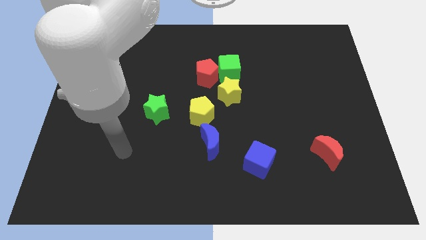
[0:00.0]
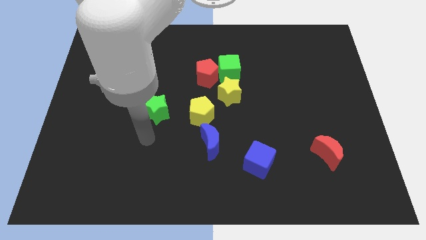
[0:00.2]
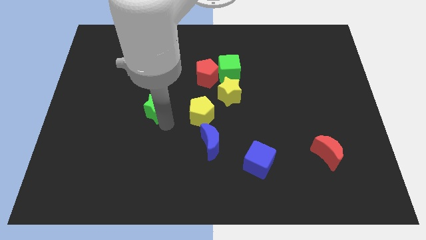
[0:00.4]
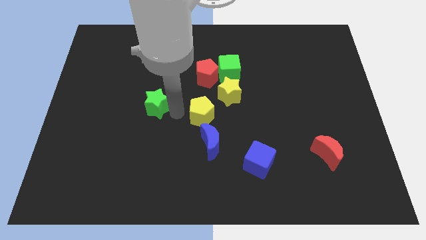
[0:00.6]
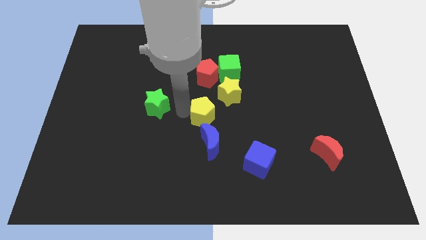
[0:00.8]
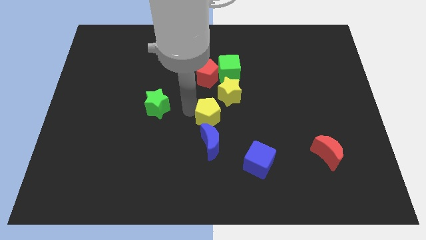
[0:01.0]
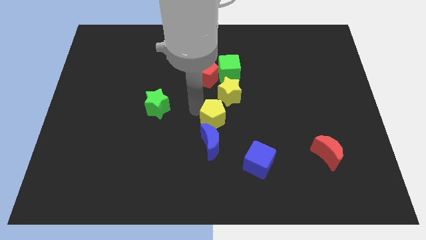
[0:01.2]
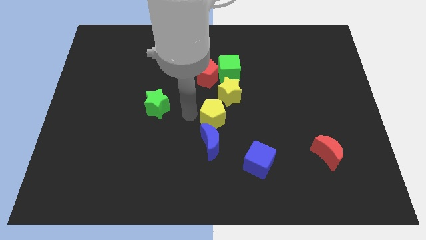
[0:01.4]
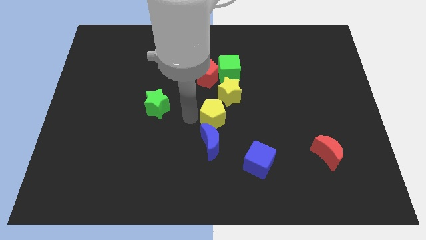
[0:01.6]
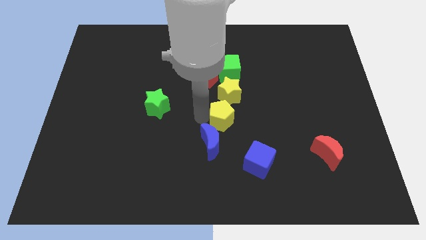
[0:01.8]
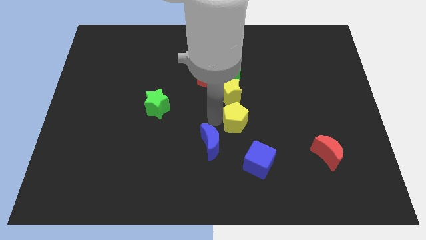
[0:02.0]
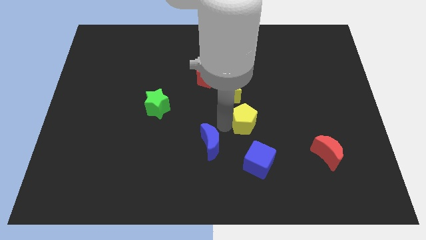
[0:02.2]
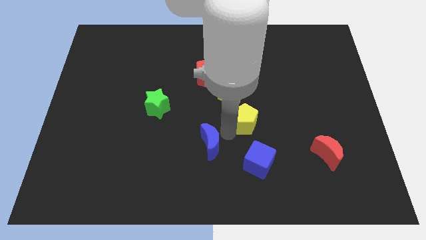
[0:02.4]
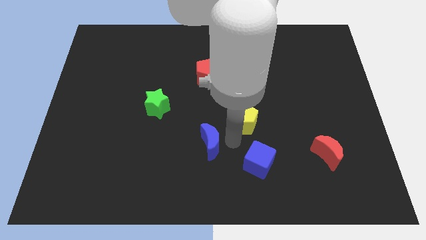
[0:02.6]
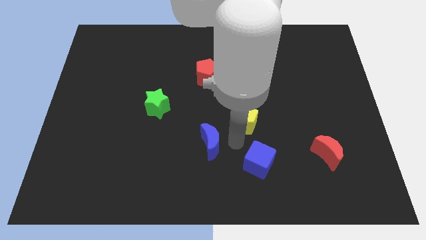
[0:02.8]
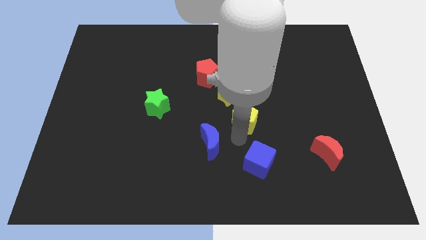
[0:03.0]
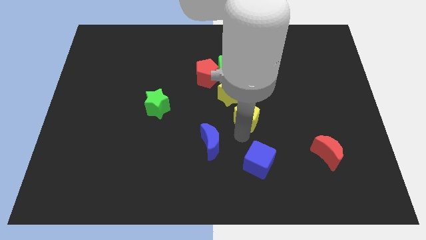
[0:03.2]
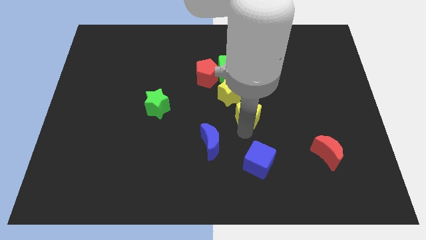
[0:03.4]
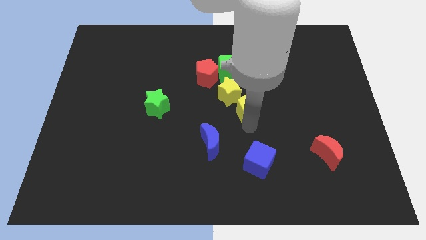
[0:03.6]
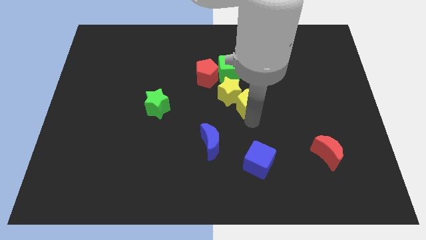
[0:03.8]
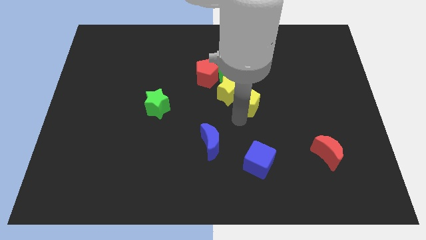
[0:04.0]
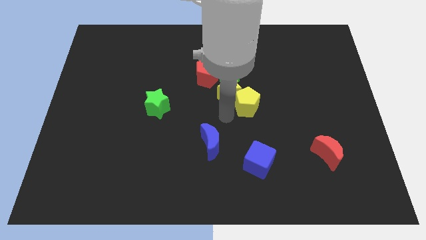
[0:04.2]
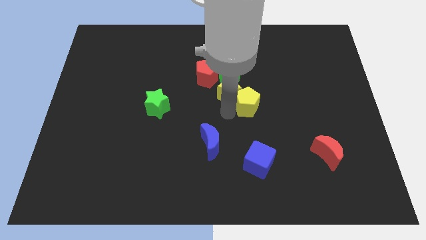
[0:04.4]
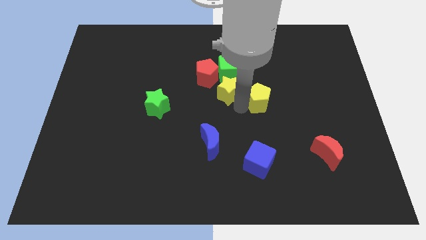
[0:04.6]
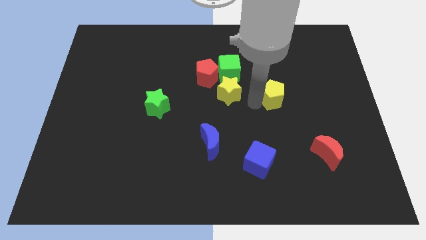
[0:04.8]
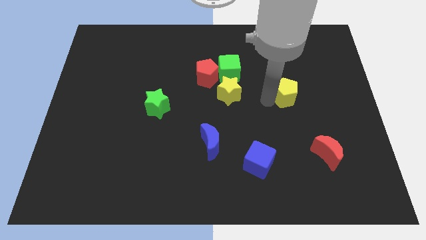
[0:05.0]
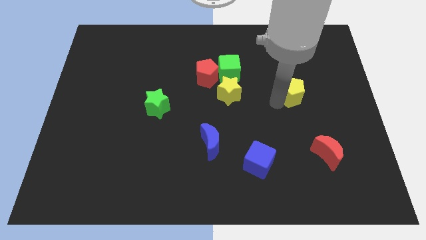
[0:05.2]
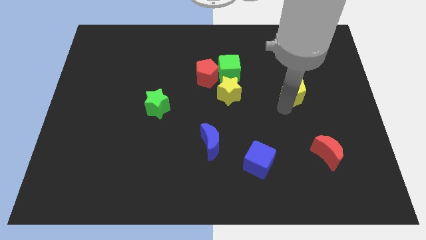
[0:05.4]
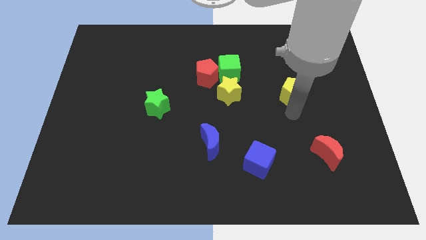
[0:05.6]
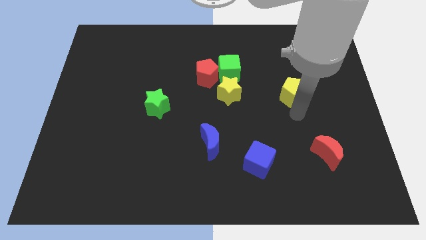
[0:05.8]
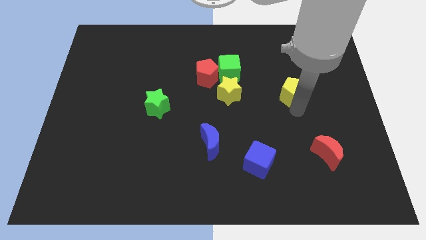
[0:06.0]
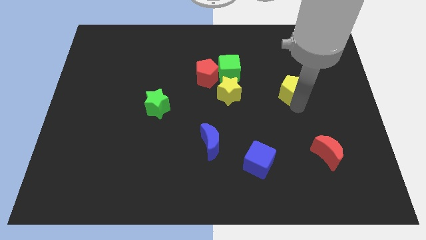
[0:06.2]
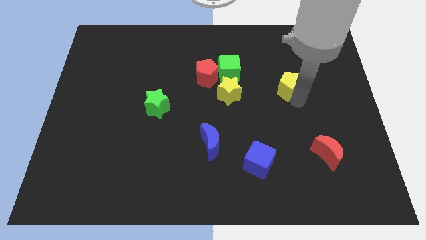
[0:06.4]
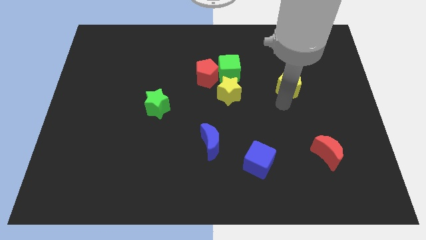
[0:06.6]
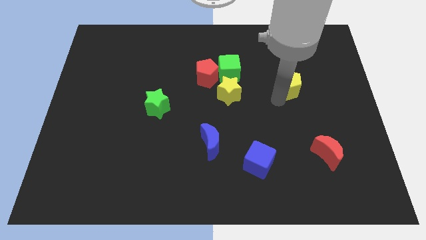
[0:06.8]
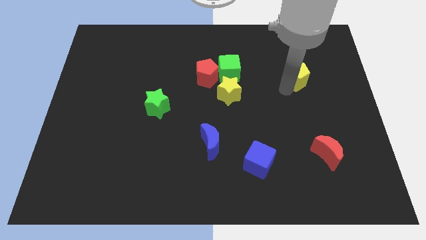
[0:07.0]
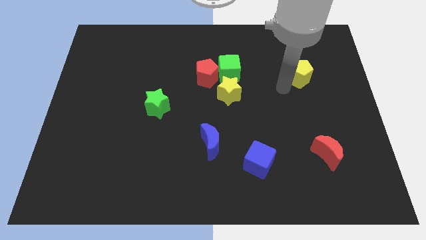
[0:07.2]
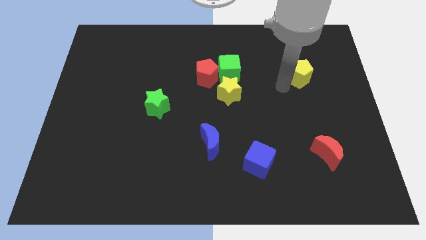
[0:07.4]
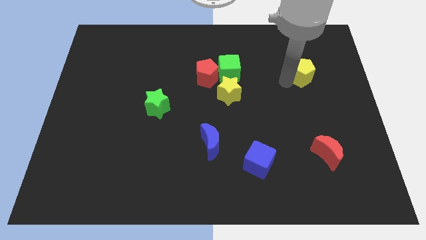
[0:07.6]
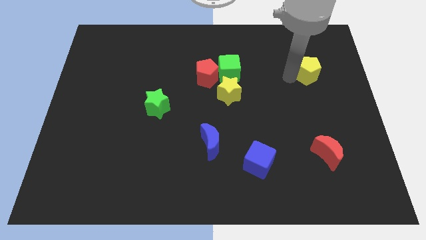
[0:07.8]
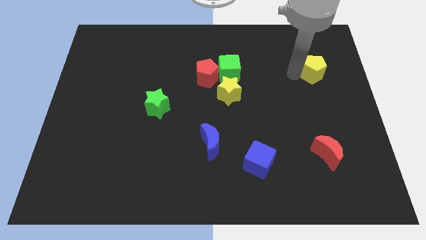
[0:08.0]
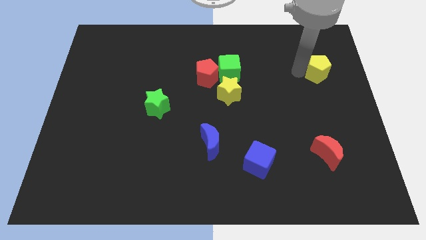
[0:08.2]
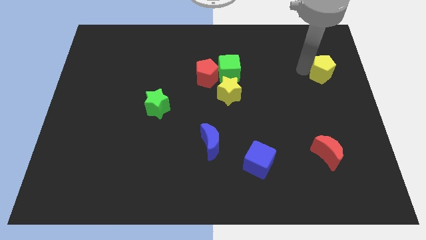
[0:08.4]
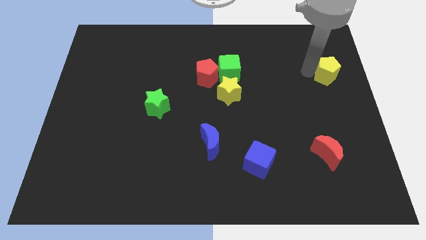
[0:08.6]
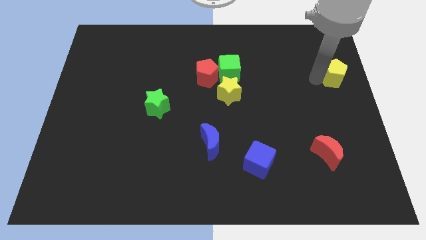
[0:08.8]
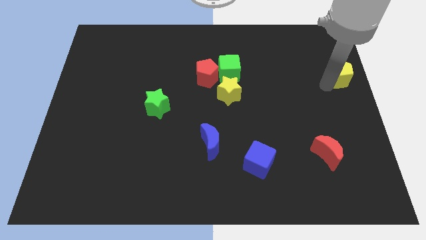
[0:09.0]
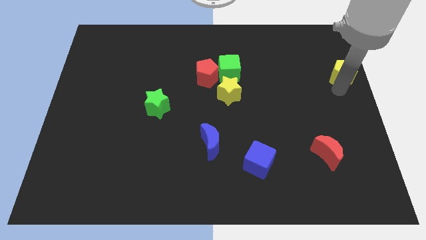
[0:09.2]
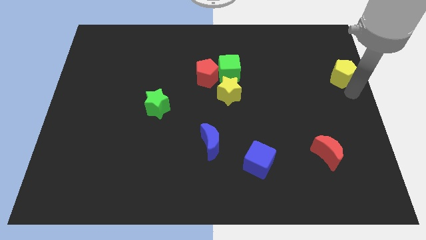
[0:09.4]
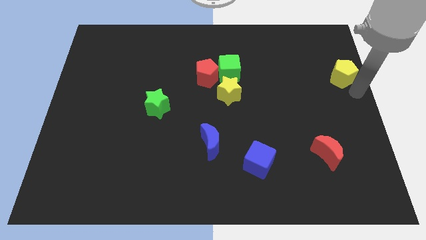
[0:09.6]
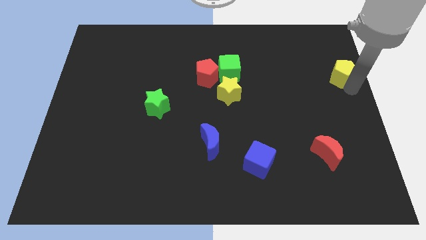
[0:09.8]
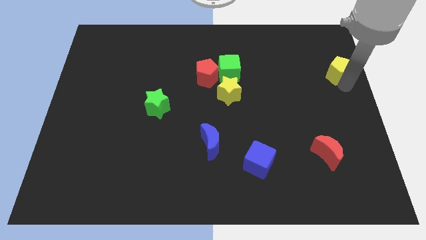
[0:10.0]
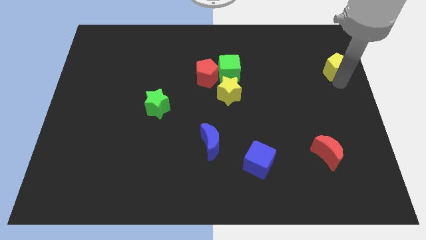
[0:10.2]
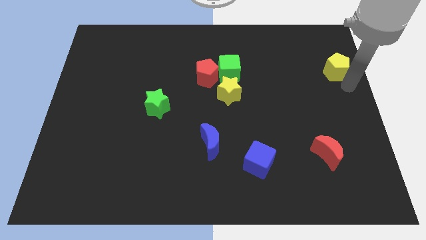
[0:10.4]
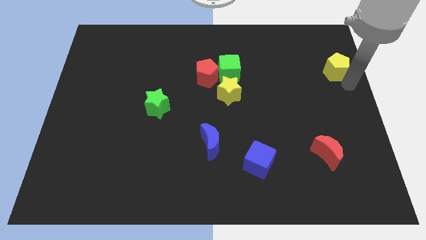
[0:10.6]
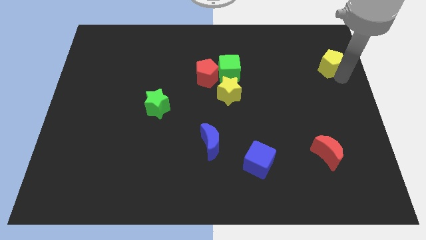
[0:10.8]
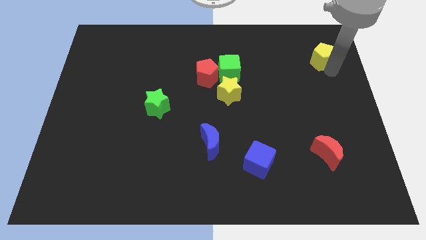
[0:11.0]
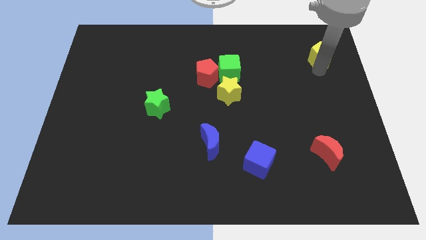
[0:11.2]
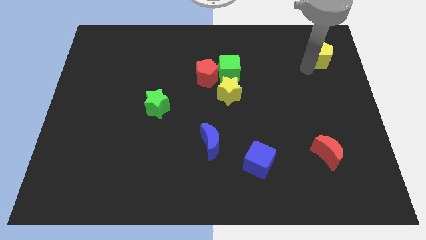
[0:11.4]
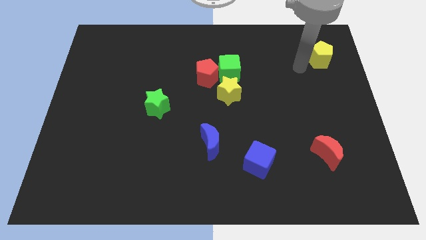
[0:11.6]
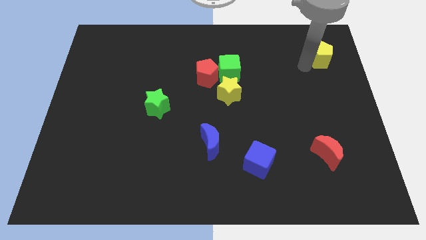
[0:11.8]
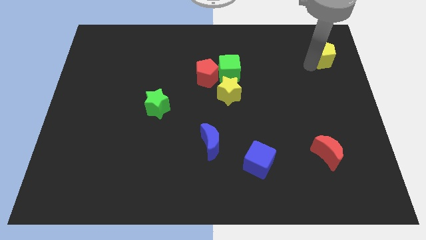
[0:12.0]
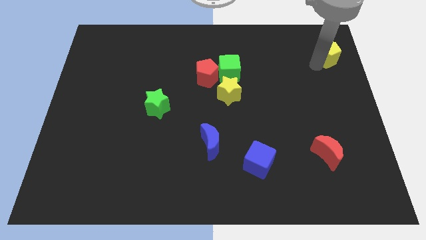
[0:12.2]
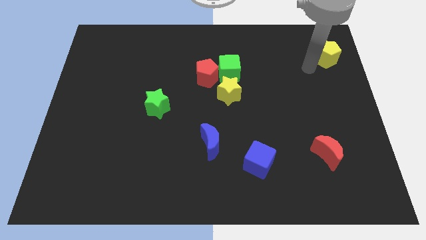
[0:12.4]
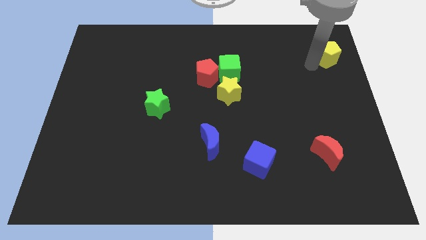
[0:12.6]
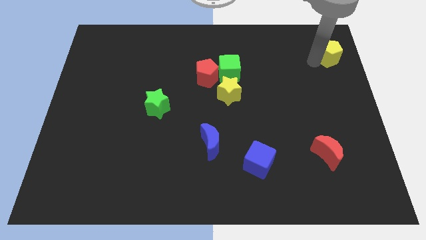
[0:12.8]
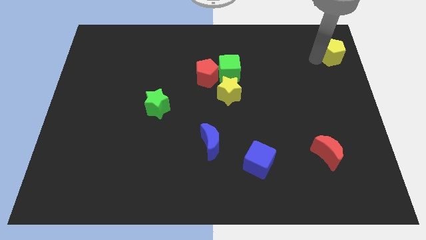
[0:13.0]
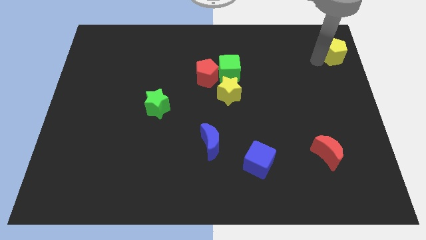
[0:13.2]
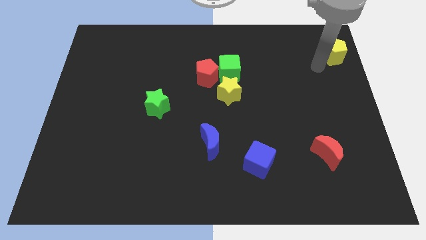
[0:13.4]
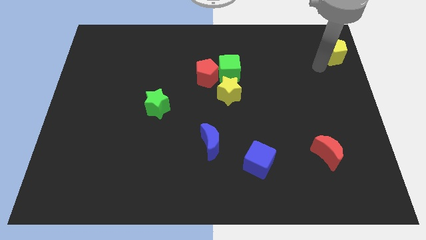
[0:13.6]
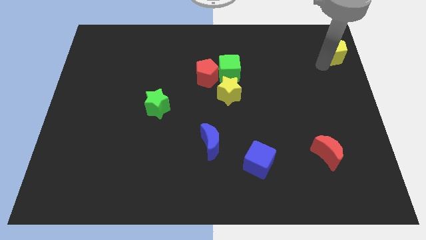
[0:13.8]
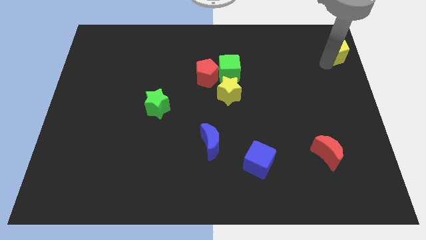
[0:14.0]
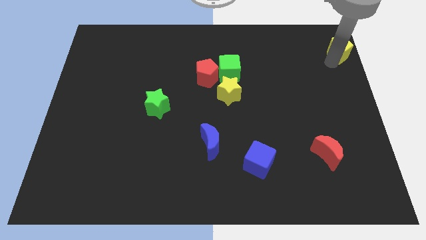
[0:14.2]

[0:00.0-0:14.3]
move the yellow pentagon to the top right of the board

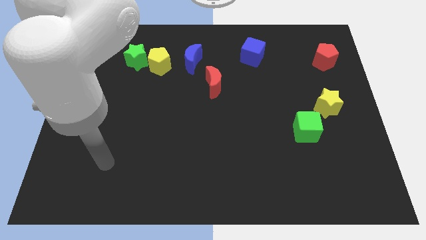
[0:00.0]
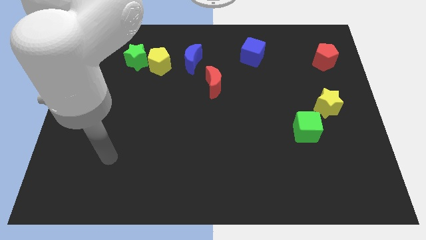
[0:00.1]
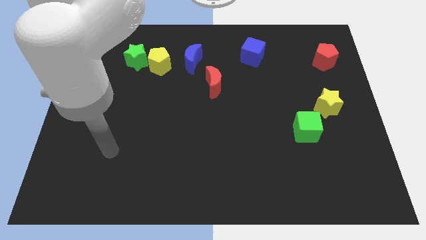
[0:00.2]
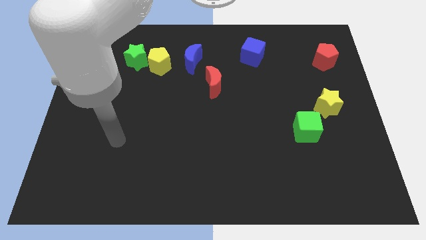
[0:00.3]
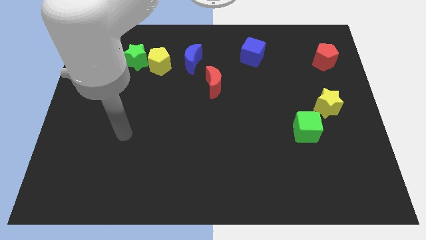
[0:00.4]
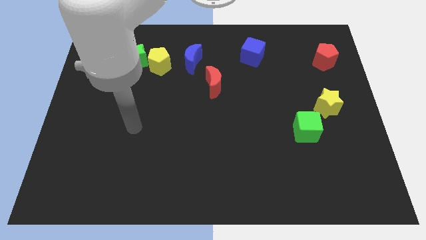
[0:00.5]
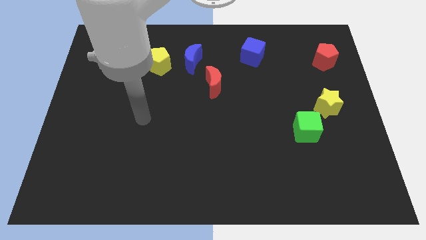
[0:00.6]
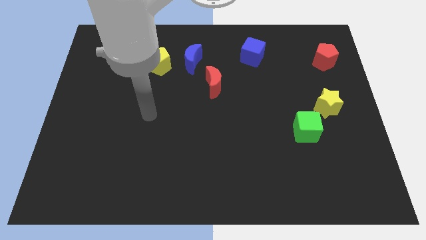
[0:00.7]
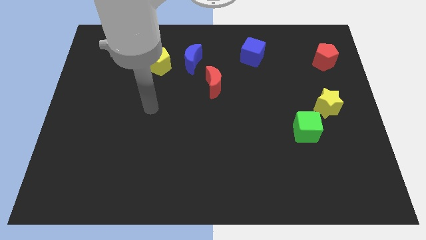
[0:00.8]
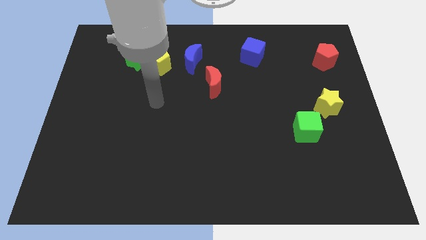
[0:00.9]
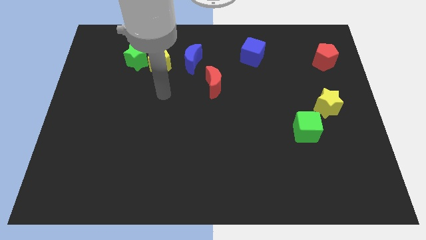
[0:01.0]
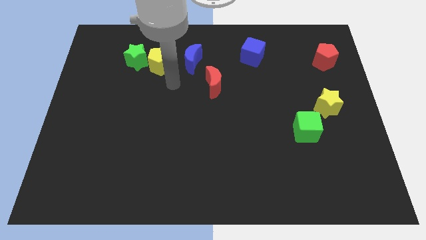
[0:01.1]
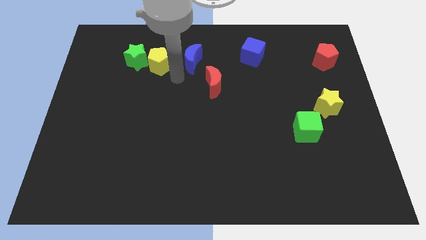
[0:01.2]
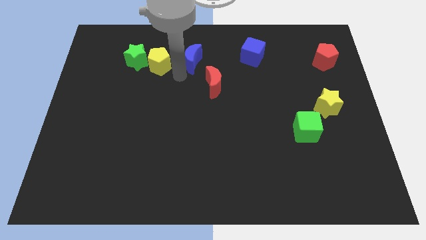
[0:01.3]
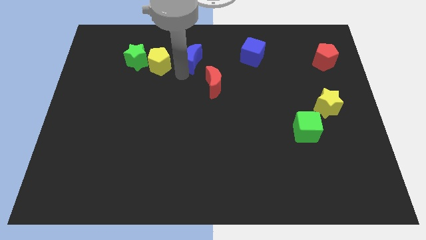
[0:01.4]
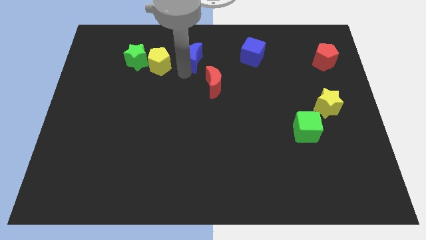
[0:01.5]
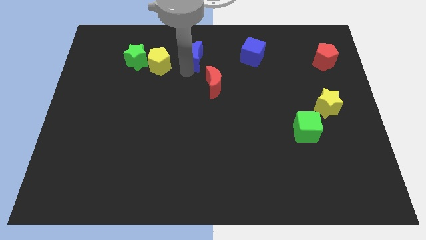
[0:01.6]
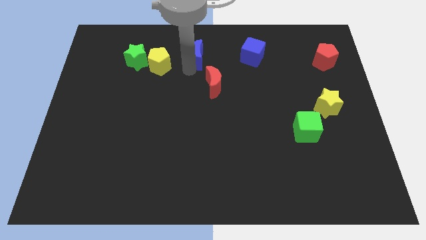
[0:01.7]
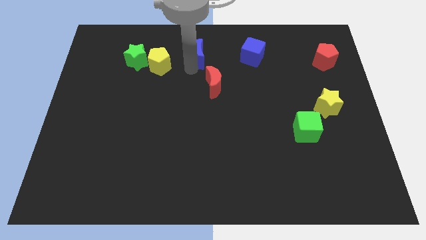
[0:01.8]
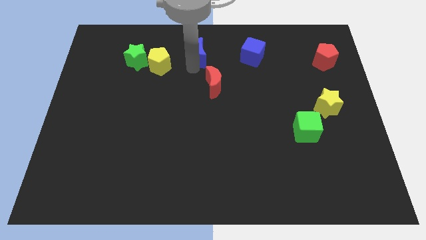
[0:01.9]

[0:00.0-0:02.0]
push the blue moon to the towards your base
